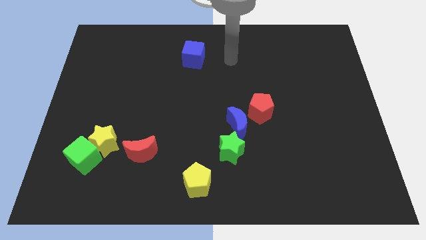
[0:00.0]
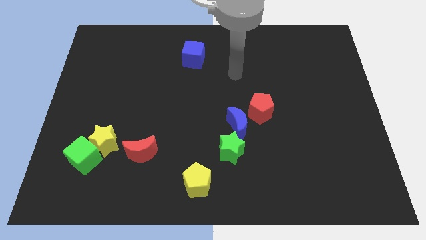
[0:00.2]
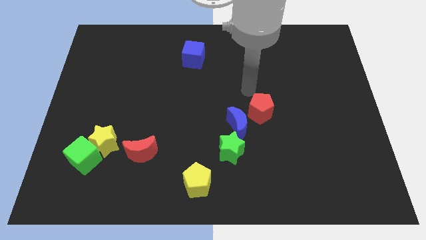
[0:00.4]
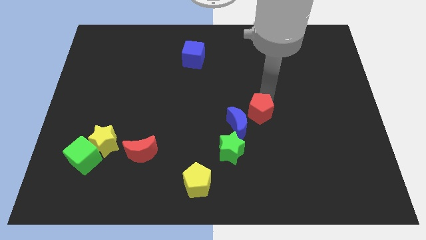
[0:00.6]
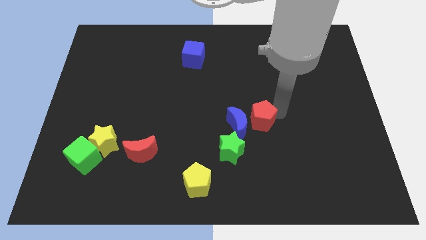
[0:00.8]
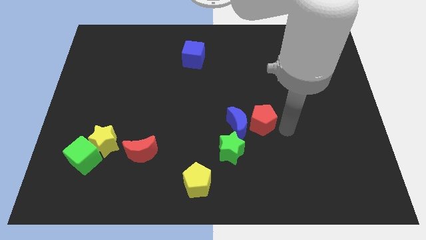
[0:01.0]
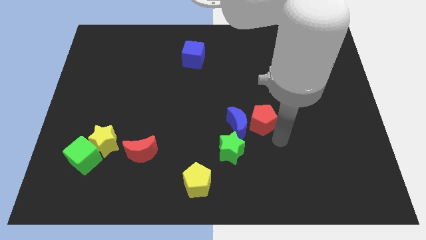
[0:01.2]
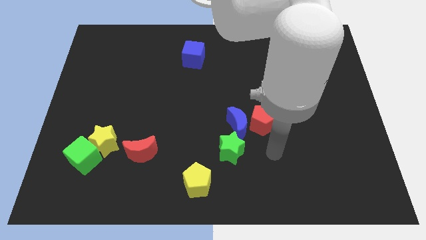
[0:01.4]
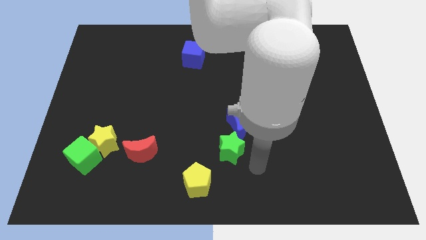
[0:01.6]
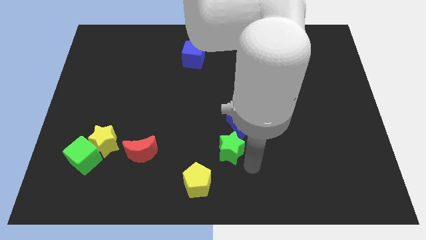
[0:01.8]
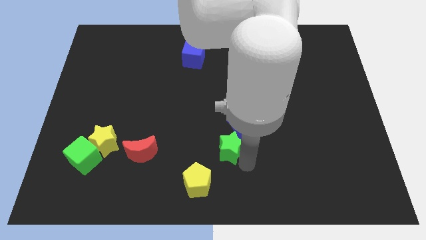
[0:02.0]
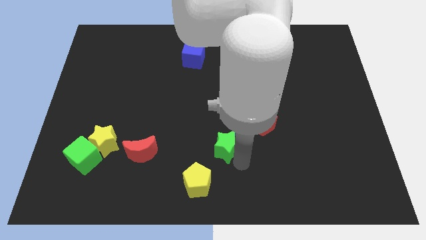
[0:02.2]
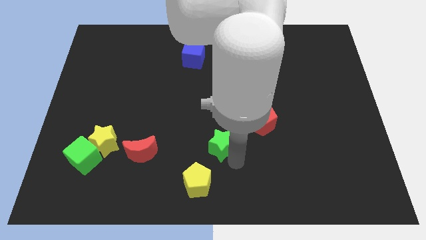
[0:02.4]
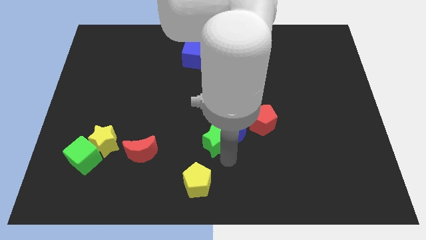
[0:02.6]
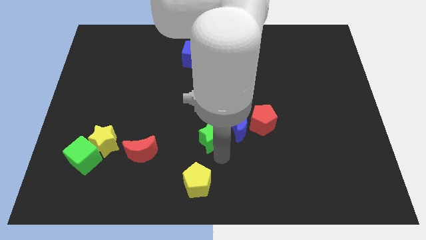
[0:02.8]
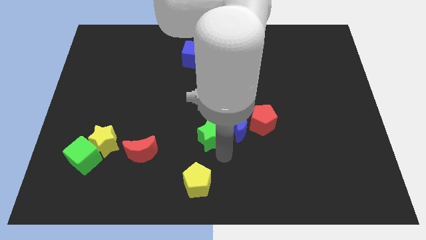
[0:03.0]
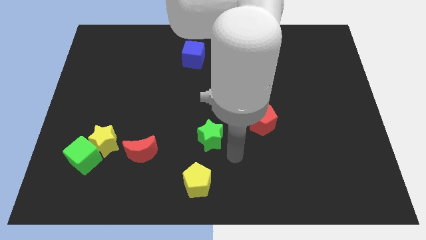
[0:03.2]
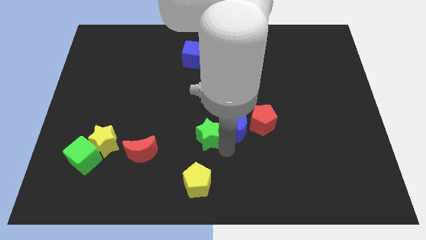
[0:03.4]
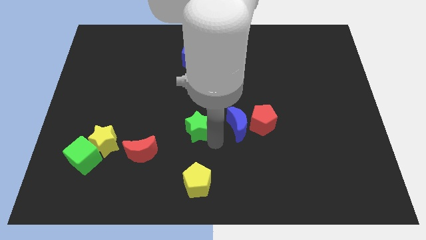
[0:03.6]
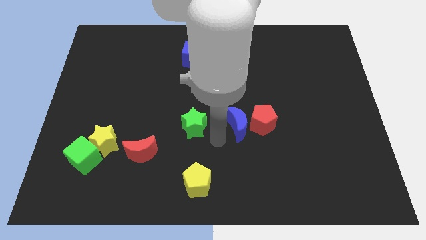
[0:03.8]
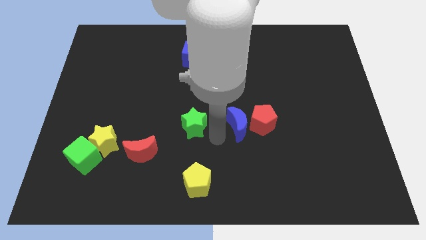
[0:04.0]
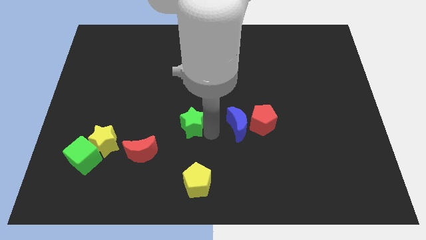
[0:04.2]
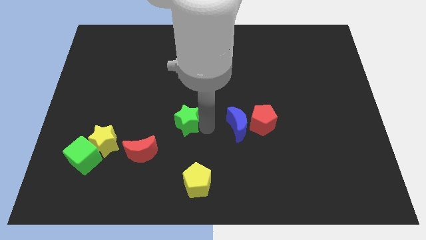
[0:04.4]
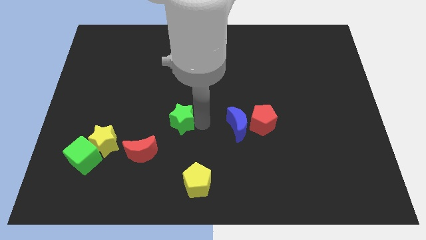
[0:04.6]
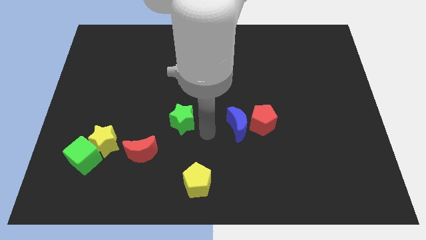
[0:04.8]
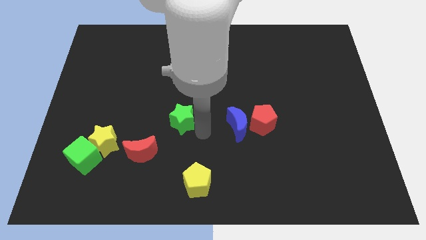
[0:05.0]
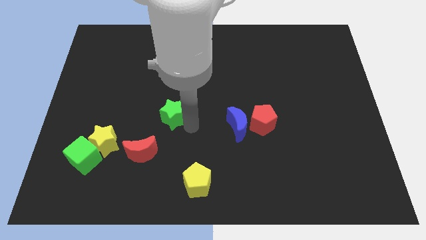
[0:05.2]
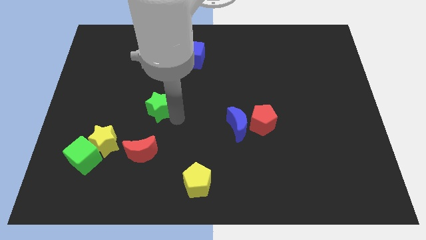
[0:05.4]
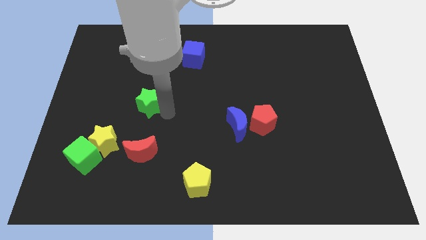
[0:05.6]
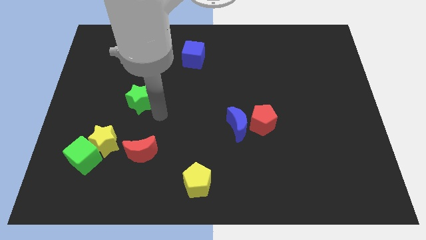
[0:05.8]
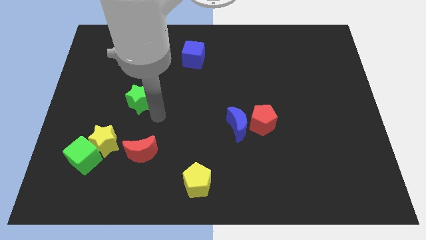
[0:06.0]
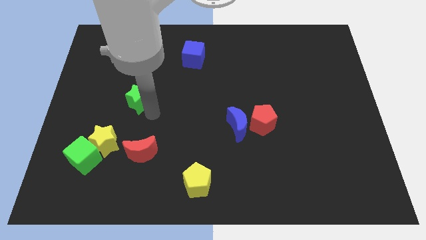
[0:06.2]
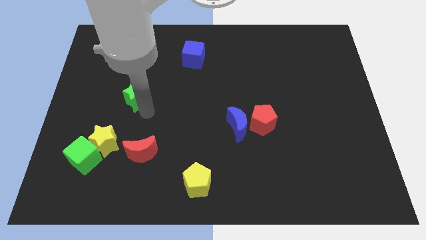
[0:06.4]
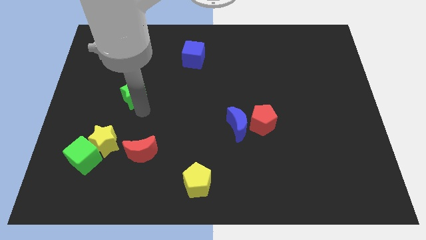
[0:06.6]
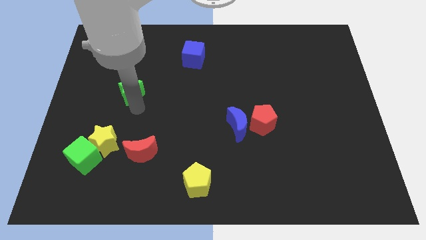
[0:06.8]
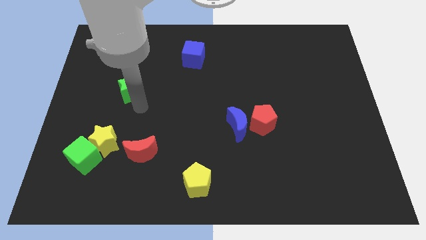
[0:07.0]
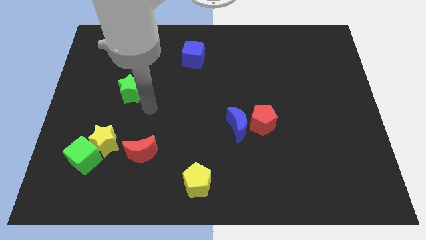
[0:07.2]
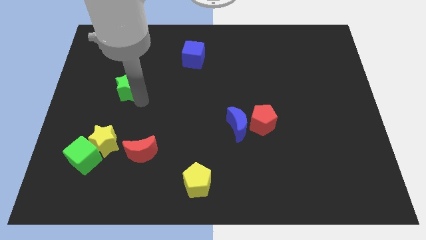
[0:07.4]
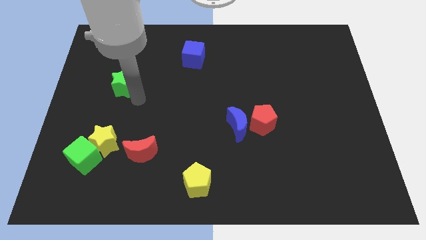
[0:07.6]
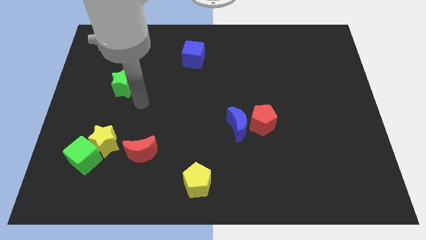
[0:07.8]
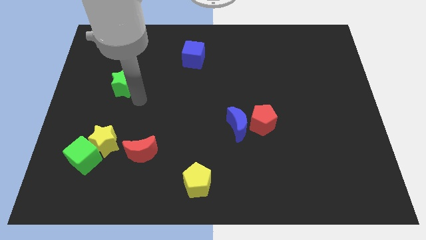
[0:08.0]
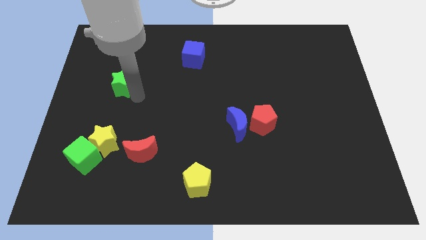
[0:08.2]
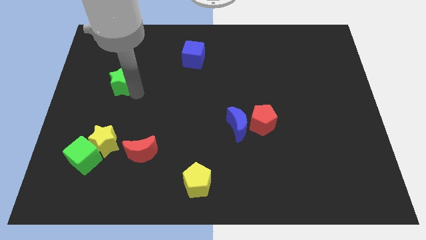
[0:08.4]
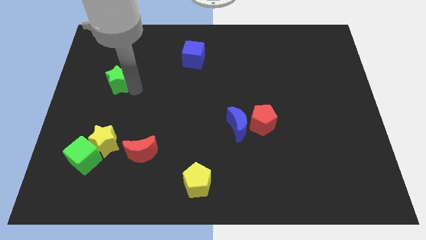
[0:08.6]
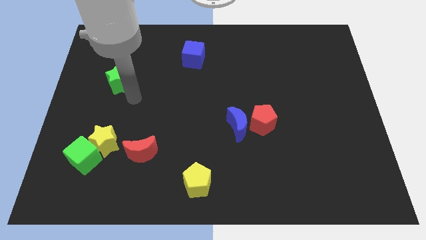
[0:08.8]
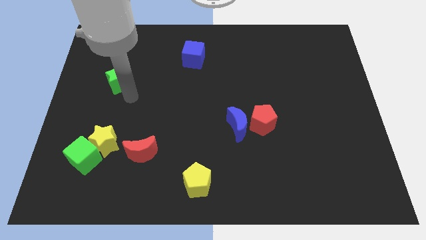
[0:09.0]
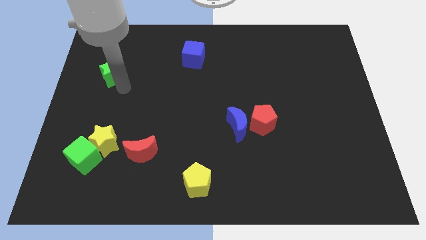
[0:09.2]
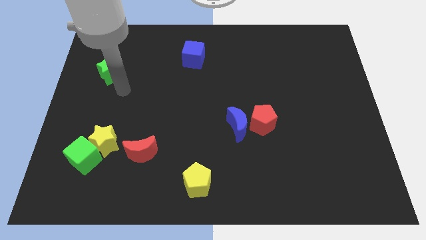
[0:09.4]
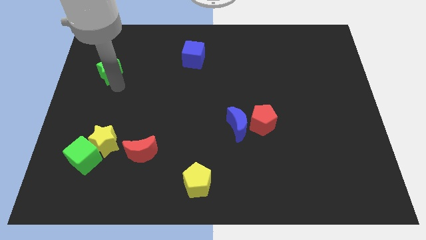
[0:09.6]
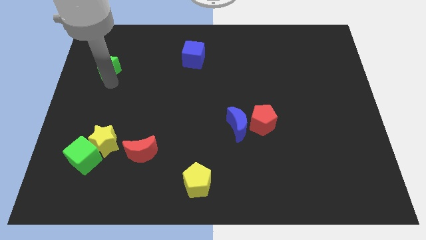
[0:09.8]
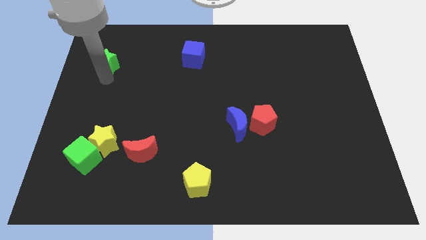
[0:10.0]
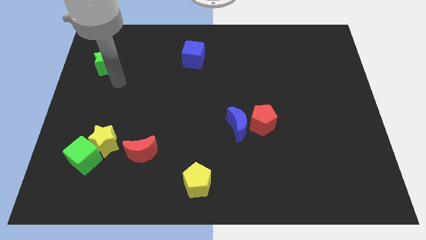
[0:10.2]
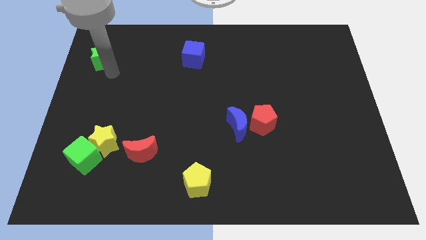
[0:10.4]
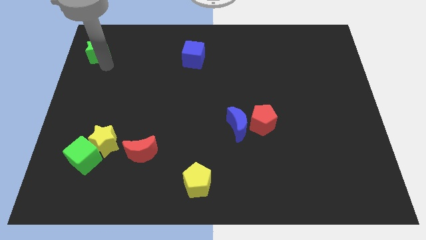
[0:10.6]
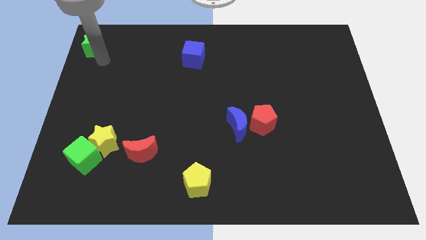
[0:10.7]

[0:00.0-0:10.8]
put the green star to the top left corner

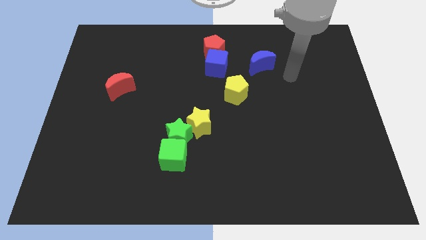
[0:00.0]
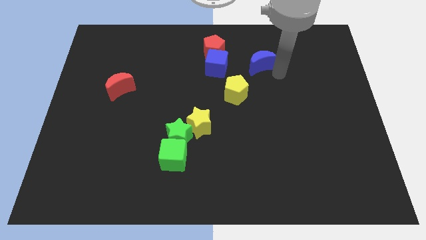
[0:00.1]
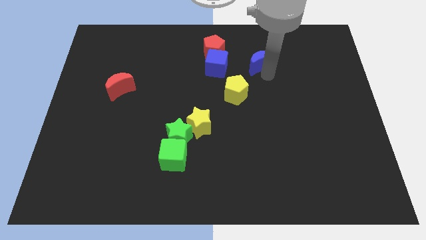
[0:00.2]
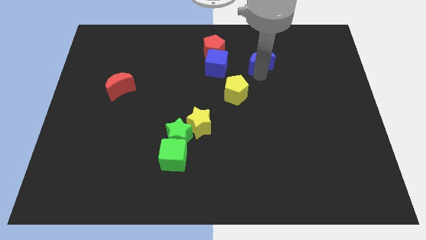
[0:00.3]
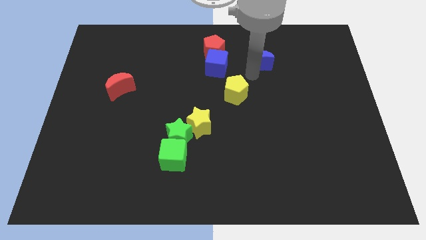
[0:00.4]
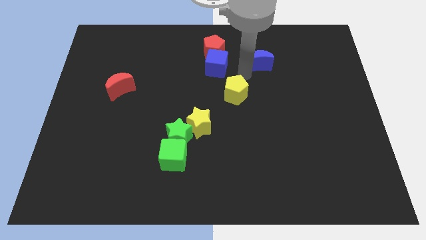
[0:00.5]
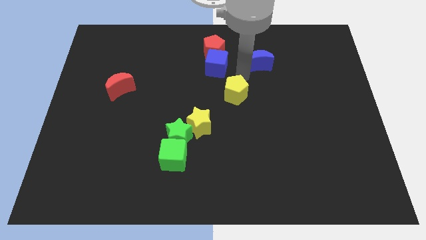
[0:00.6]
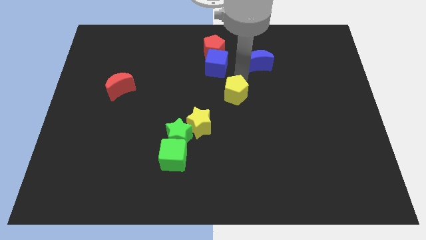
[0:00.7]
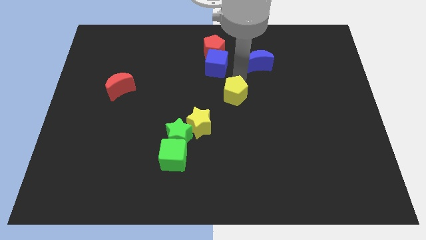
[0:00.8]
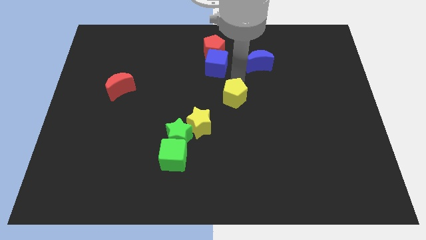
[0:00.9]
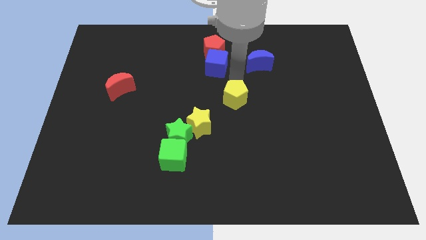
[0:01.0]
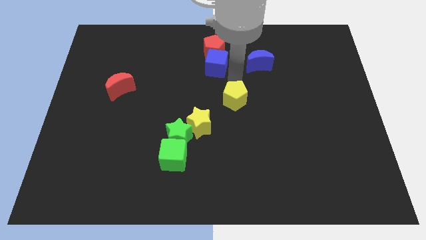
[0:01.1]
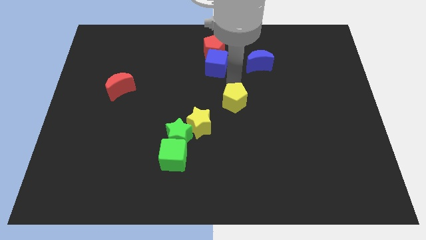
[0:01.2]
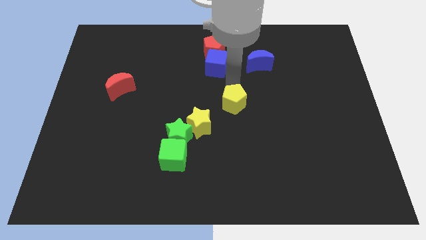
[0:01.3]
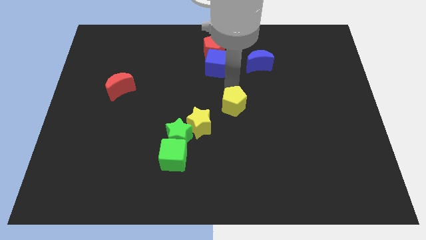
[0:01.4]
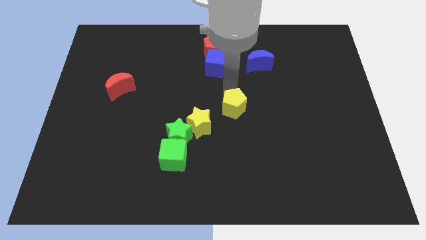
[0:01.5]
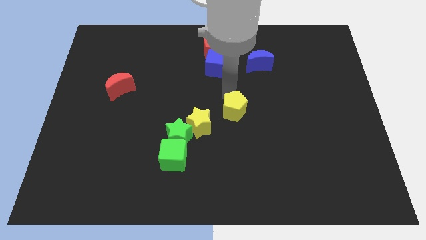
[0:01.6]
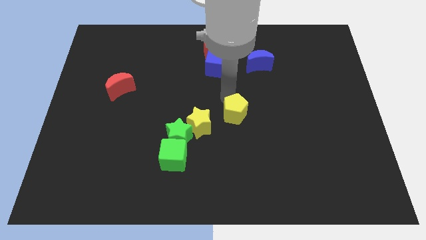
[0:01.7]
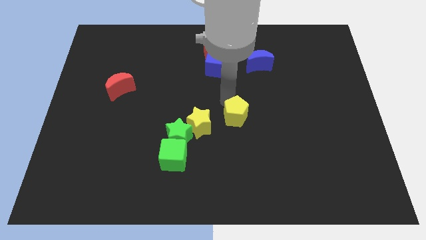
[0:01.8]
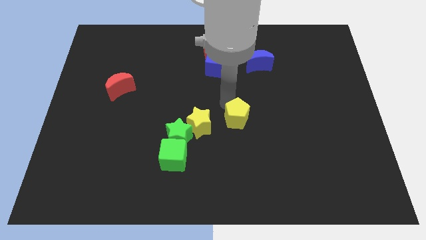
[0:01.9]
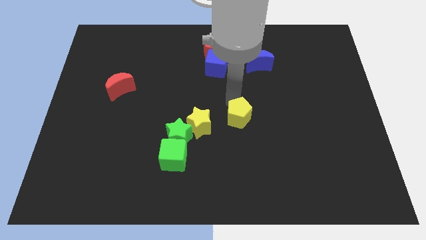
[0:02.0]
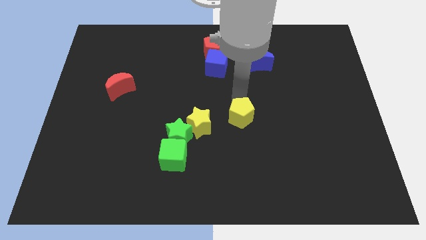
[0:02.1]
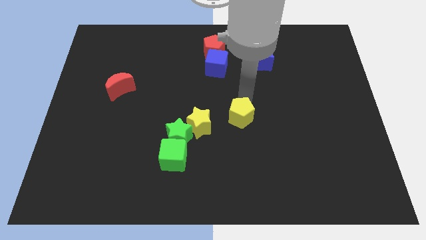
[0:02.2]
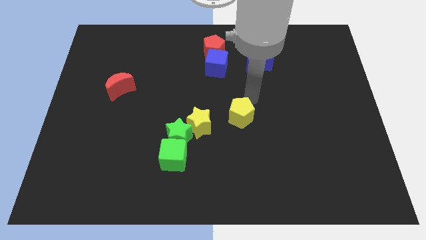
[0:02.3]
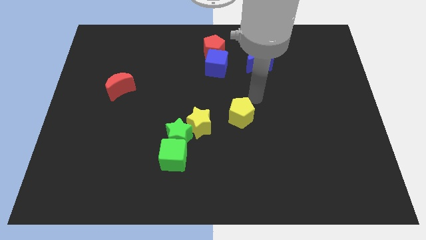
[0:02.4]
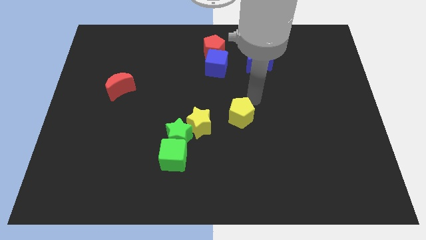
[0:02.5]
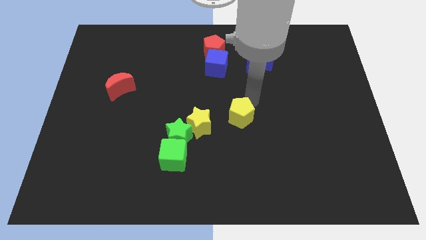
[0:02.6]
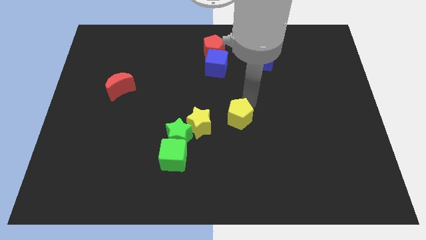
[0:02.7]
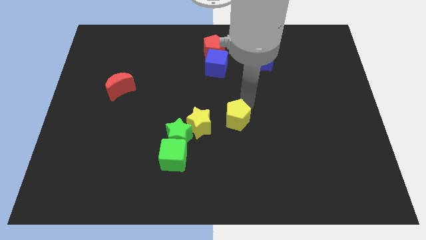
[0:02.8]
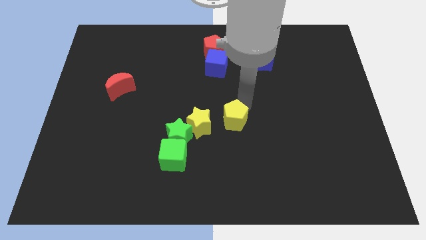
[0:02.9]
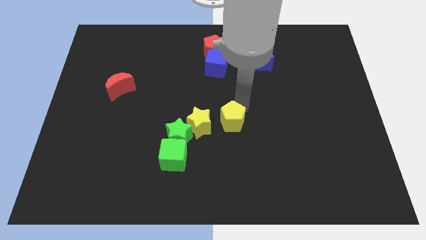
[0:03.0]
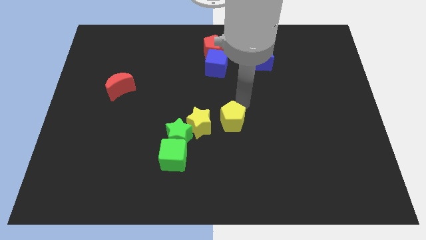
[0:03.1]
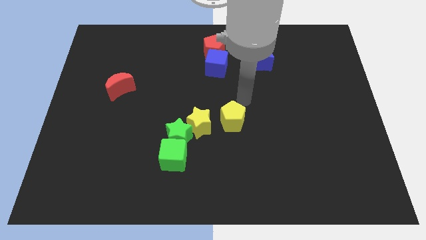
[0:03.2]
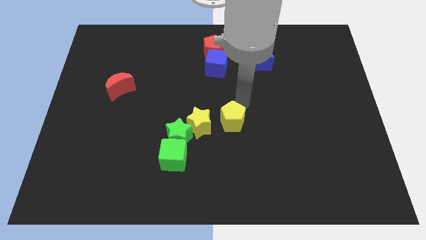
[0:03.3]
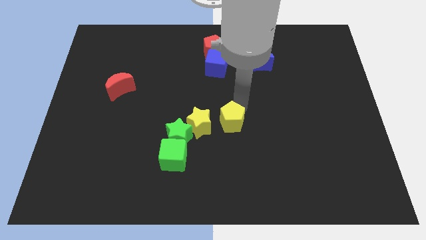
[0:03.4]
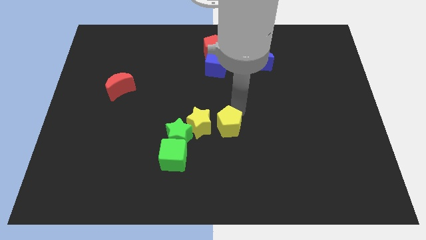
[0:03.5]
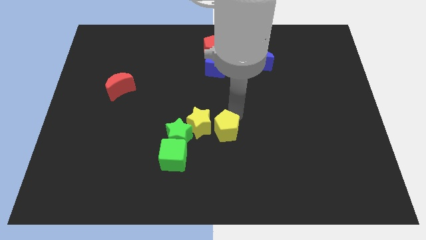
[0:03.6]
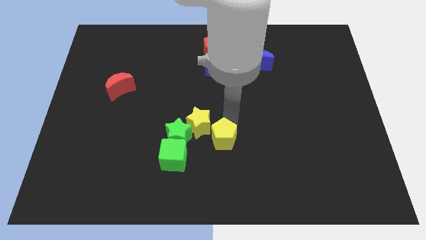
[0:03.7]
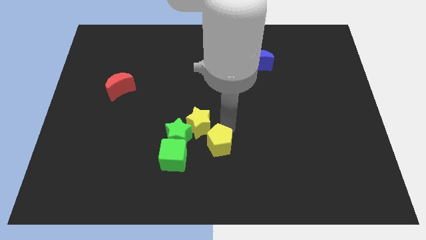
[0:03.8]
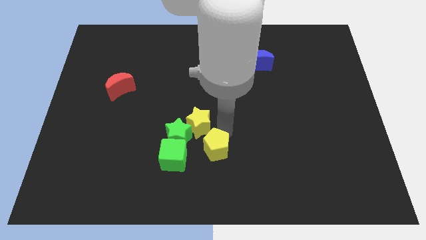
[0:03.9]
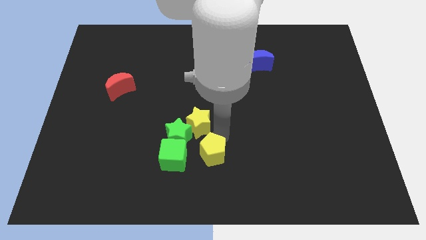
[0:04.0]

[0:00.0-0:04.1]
put the yellow pentagon to the bottom
